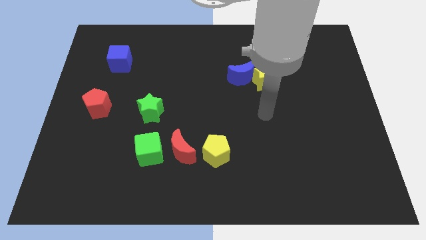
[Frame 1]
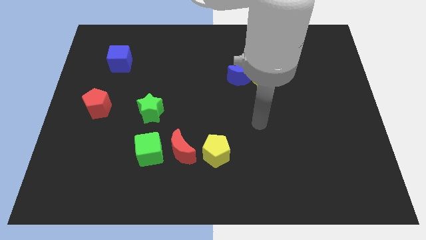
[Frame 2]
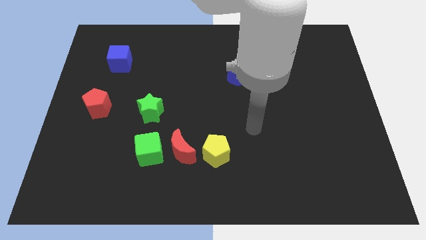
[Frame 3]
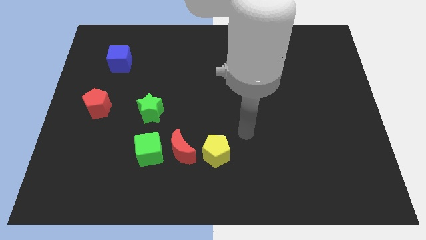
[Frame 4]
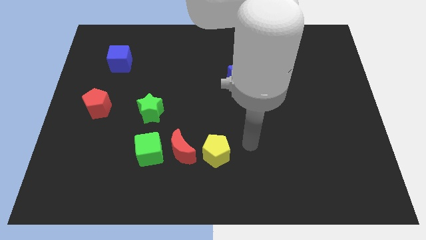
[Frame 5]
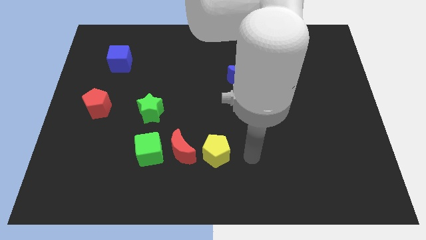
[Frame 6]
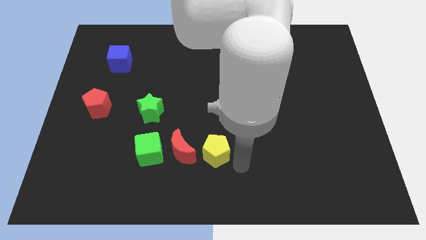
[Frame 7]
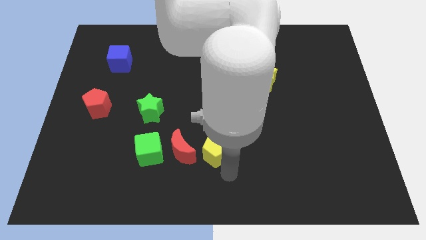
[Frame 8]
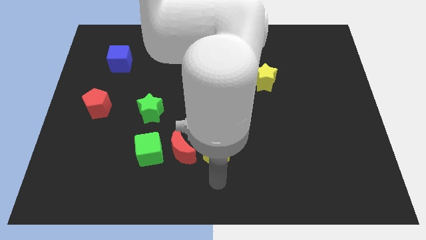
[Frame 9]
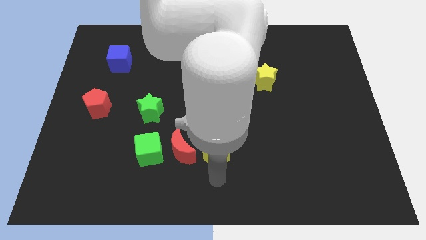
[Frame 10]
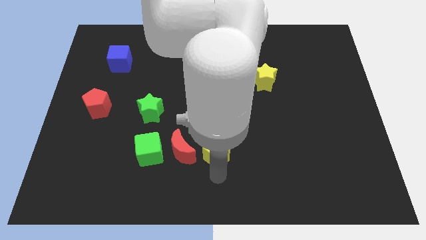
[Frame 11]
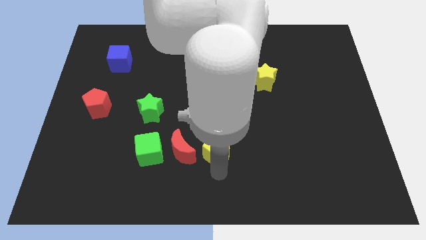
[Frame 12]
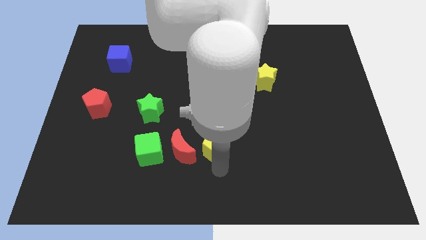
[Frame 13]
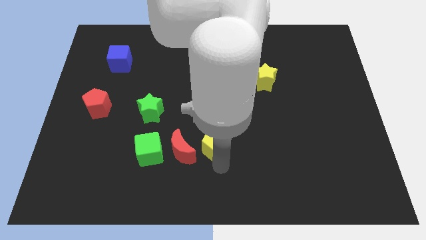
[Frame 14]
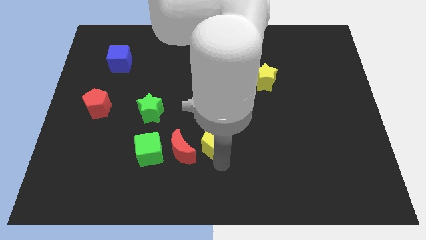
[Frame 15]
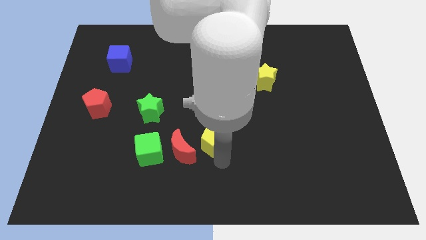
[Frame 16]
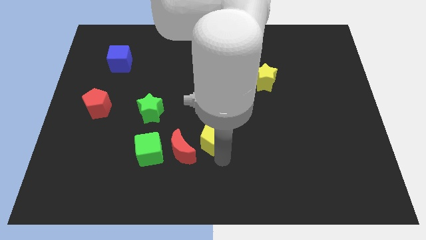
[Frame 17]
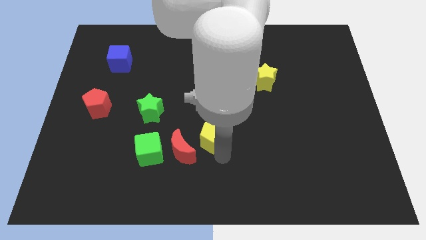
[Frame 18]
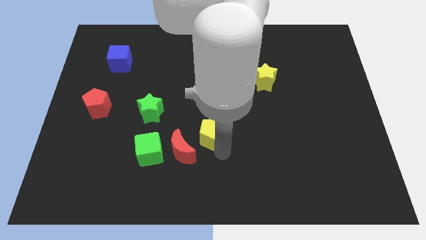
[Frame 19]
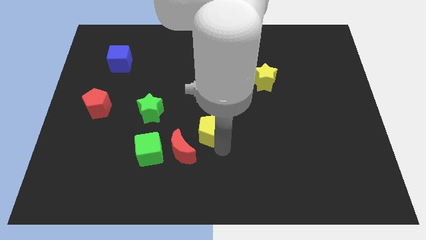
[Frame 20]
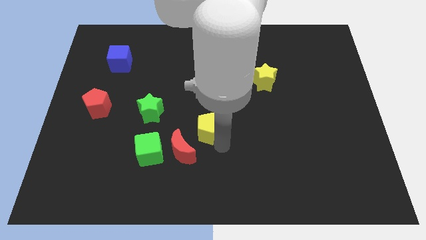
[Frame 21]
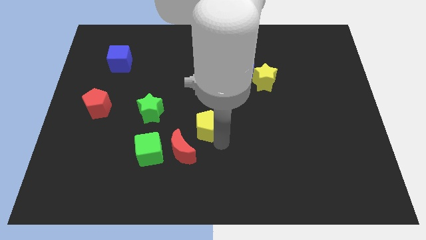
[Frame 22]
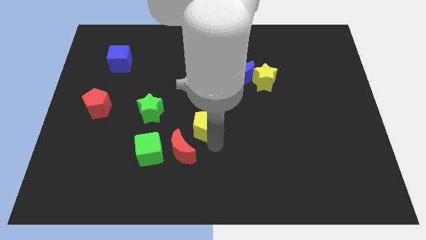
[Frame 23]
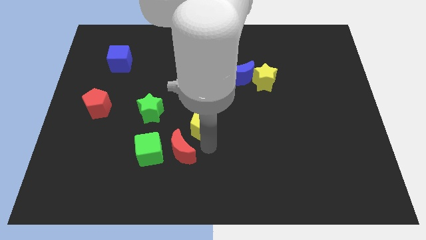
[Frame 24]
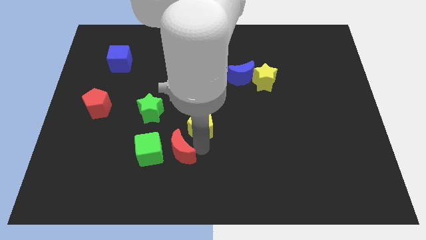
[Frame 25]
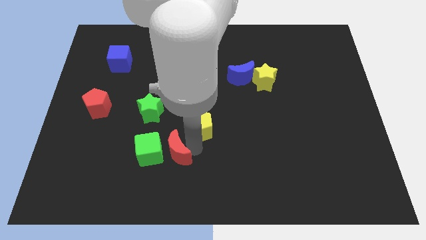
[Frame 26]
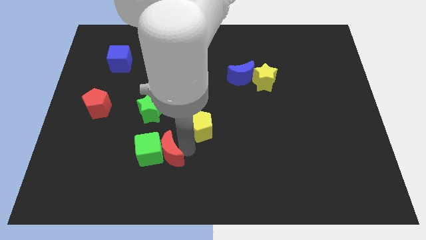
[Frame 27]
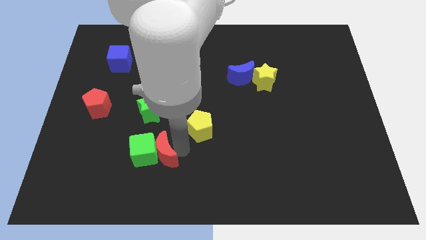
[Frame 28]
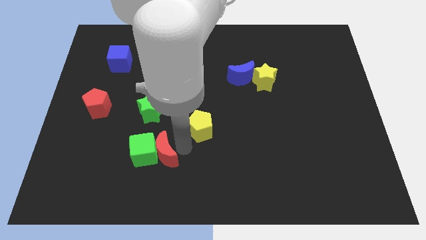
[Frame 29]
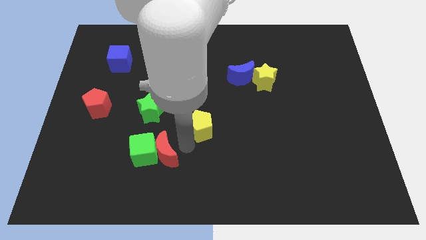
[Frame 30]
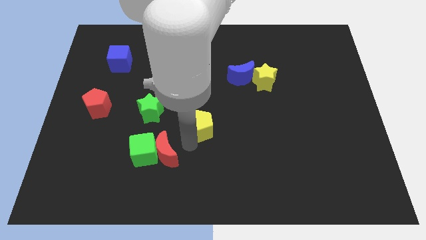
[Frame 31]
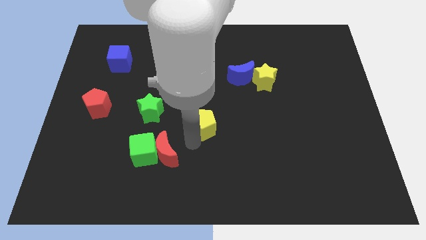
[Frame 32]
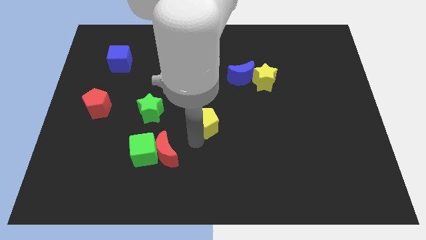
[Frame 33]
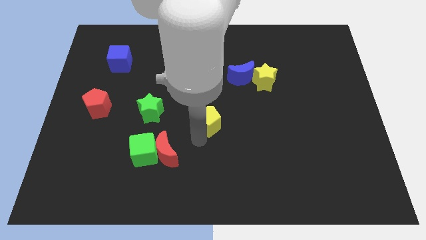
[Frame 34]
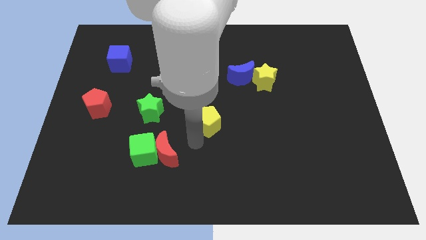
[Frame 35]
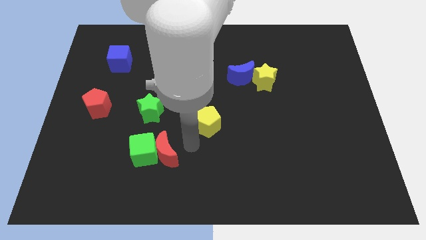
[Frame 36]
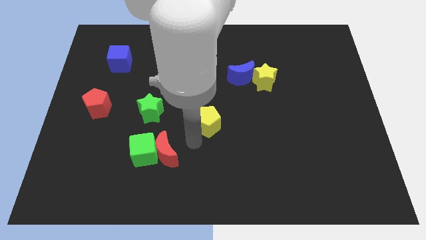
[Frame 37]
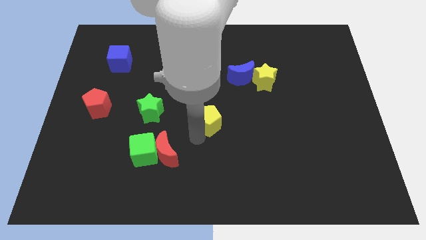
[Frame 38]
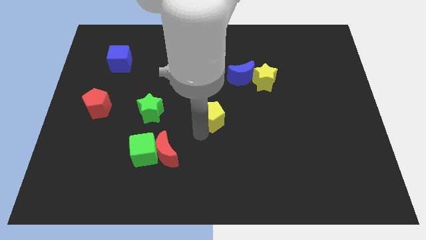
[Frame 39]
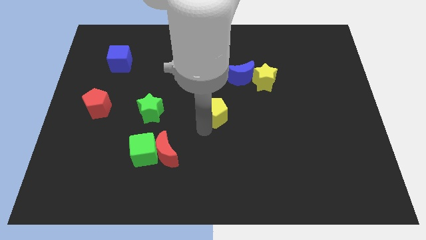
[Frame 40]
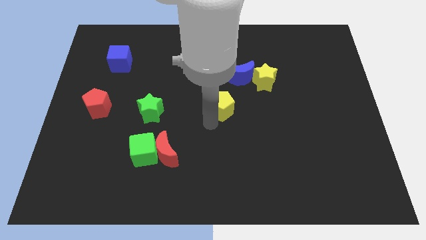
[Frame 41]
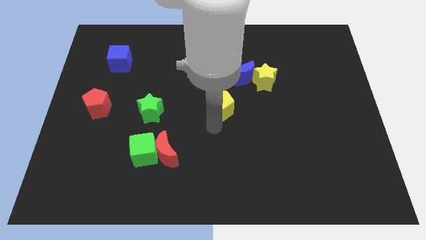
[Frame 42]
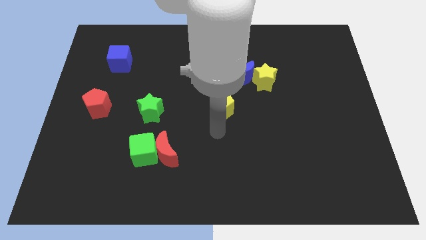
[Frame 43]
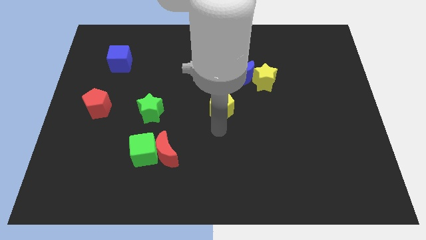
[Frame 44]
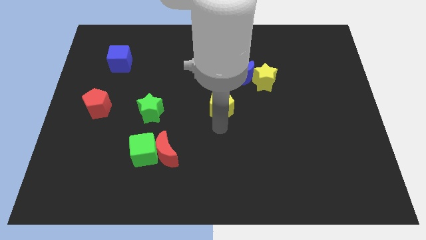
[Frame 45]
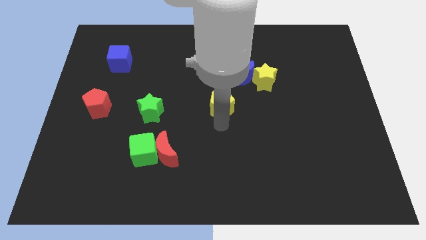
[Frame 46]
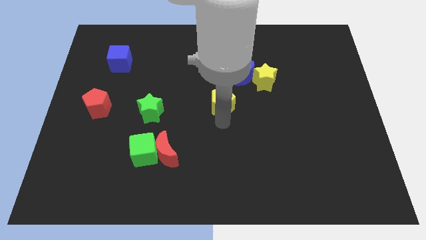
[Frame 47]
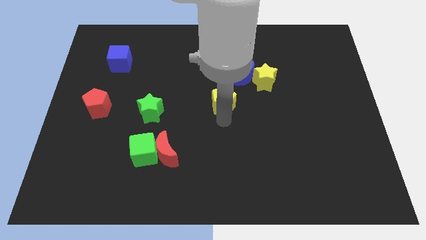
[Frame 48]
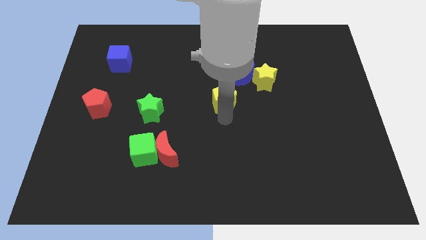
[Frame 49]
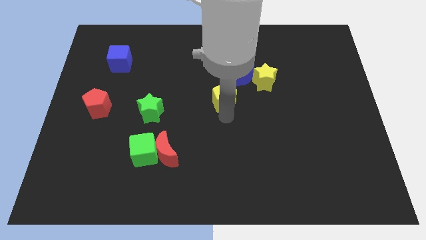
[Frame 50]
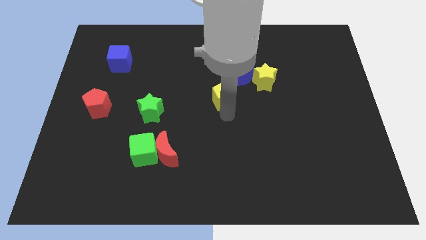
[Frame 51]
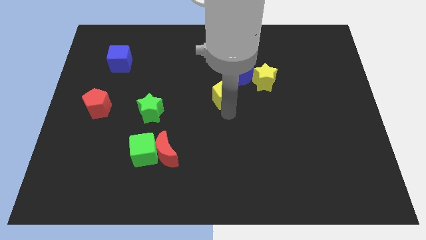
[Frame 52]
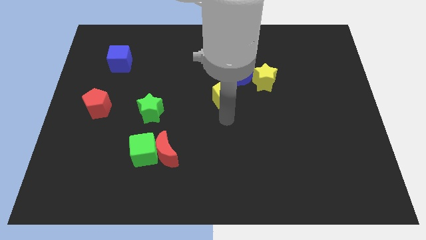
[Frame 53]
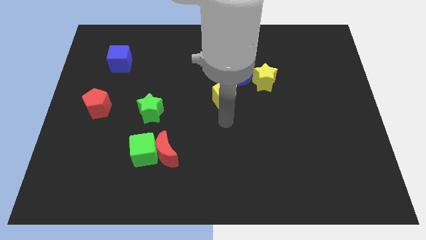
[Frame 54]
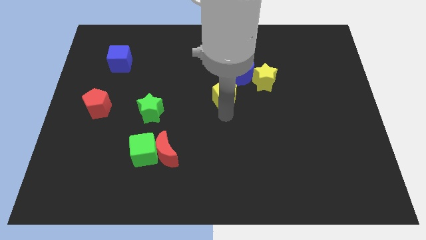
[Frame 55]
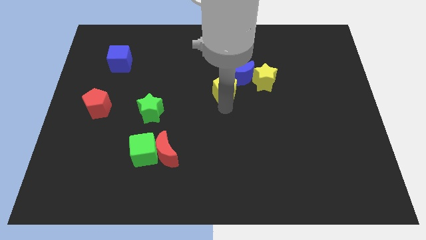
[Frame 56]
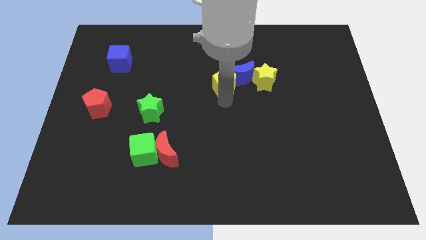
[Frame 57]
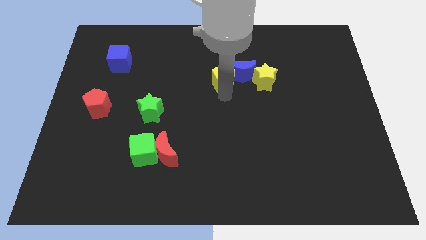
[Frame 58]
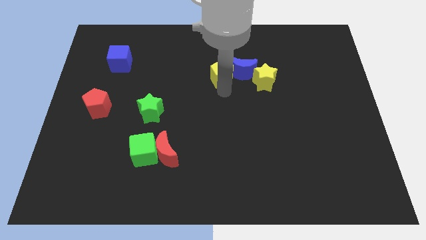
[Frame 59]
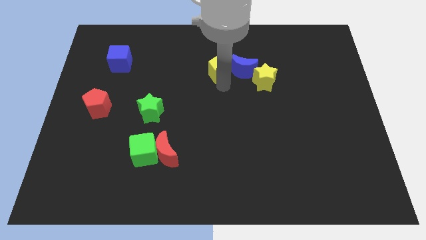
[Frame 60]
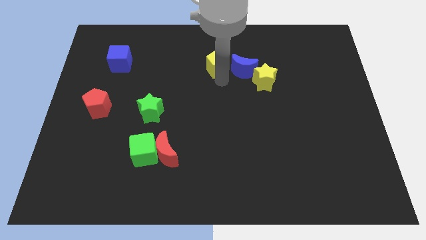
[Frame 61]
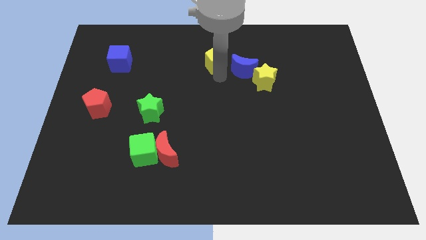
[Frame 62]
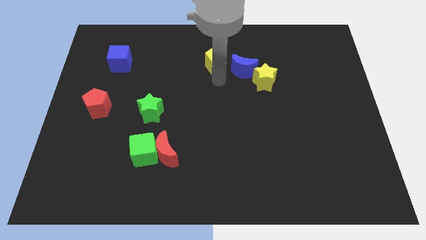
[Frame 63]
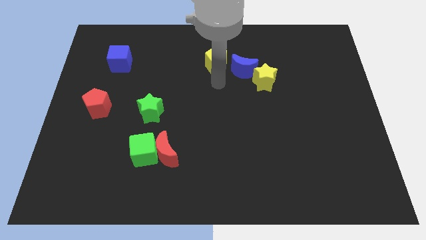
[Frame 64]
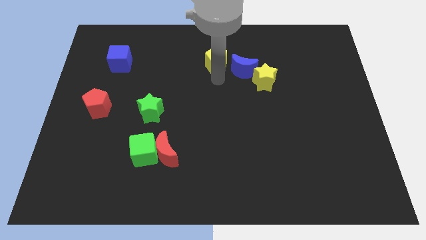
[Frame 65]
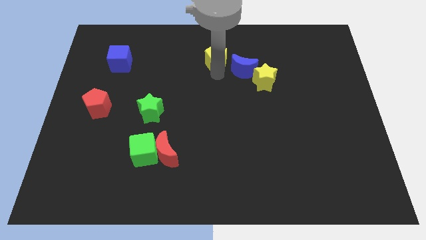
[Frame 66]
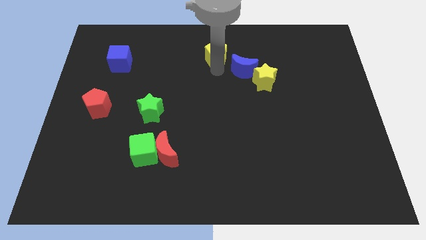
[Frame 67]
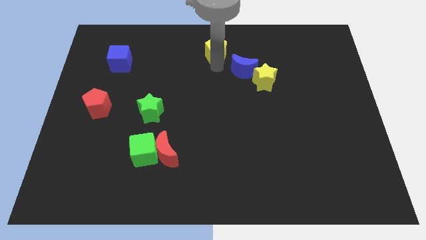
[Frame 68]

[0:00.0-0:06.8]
move the yellow pentagon to the towards your base

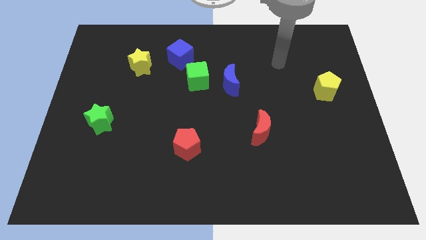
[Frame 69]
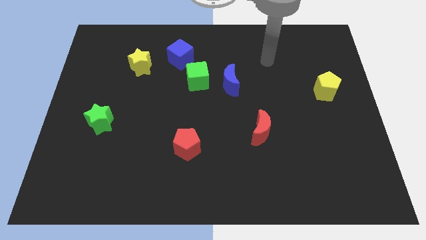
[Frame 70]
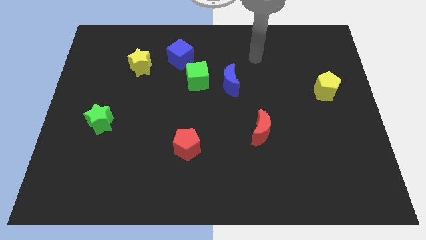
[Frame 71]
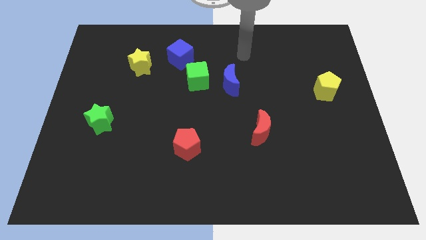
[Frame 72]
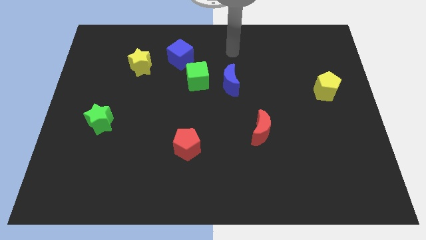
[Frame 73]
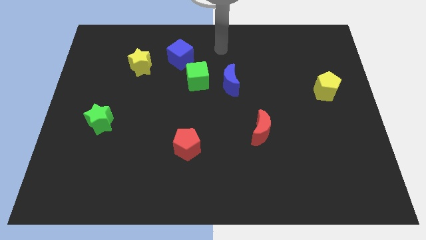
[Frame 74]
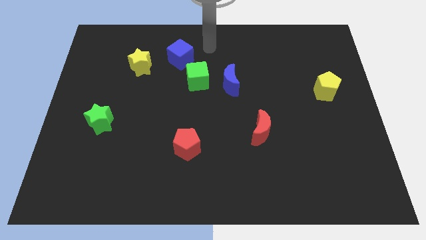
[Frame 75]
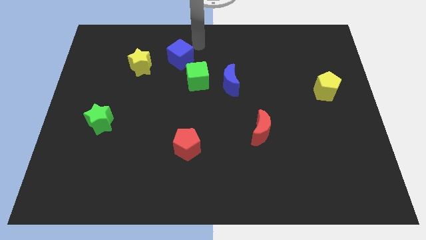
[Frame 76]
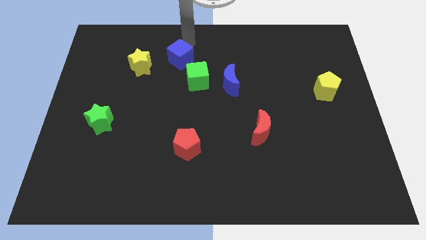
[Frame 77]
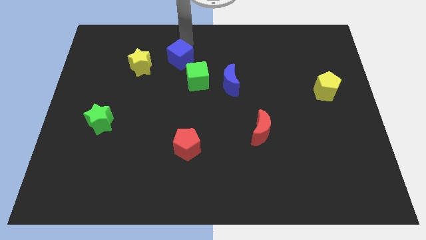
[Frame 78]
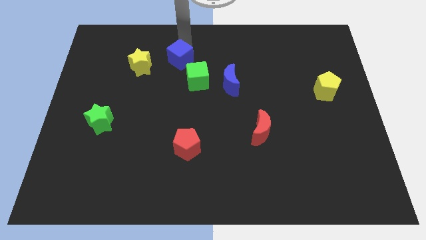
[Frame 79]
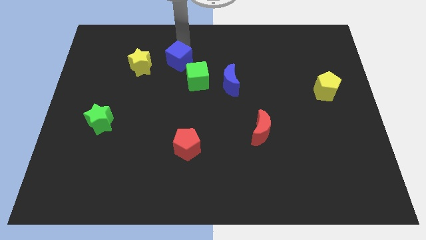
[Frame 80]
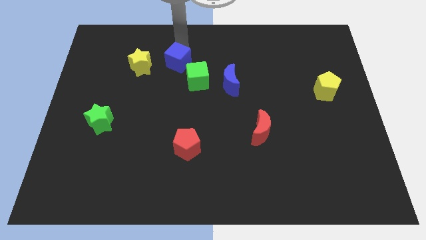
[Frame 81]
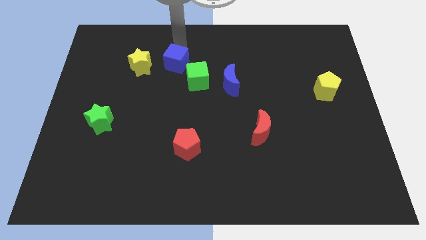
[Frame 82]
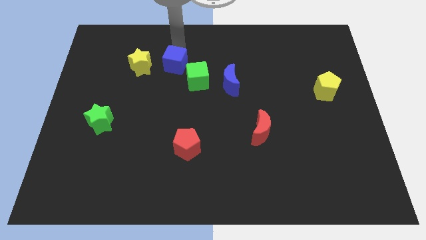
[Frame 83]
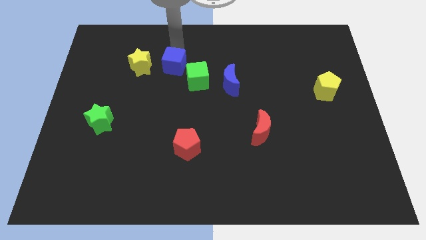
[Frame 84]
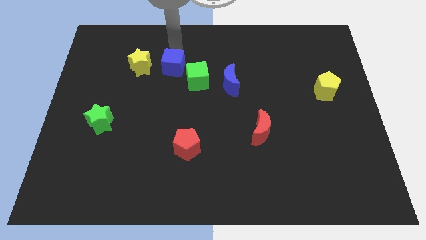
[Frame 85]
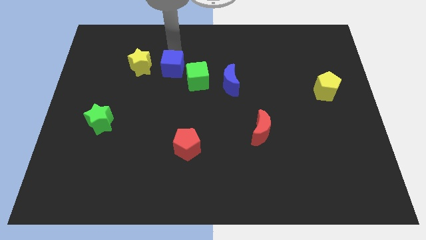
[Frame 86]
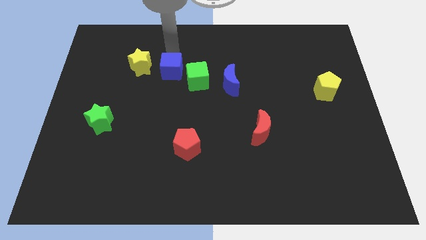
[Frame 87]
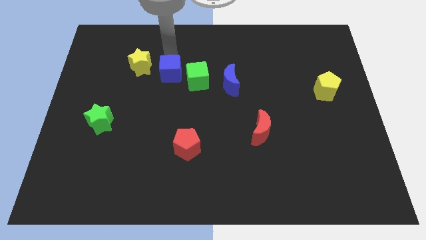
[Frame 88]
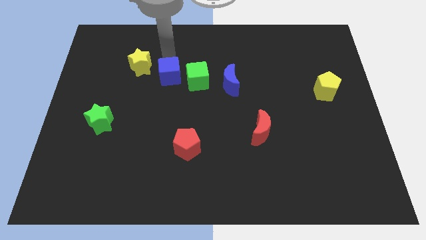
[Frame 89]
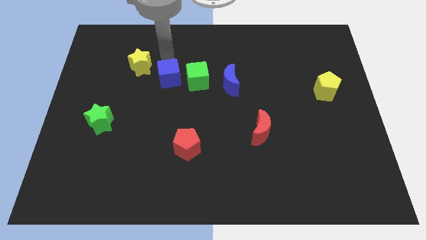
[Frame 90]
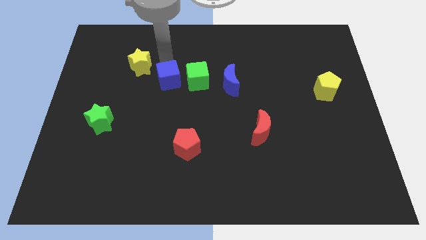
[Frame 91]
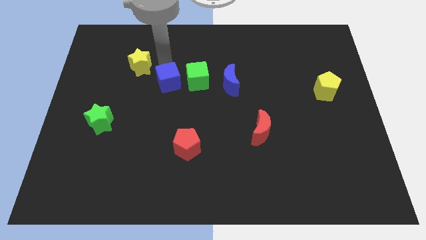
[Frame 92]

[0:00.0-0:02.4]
move the blue cube to the center
